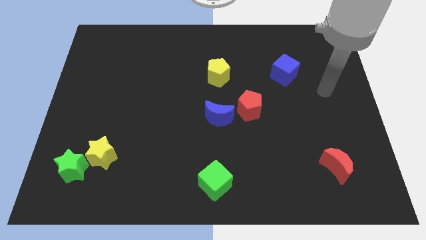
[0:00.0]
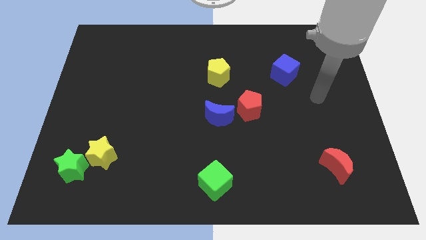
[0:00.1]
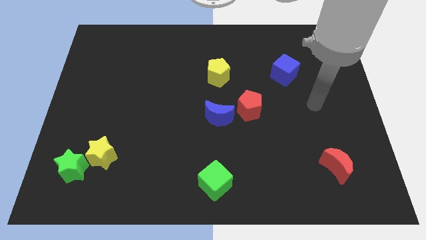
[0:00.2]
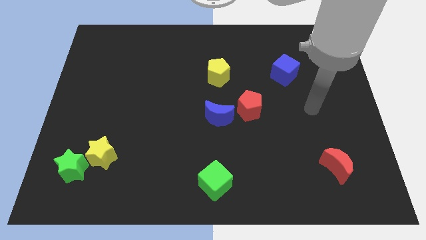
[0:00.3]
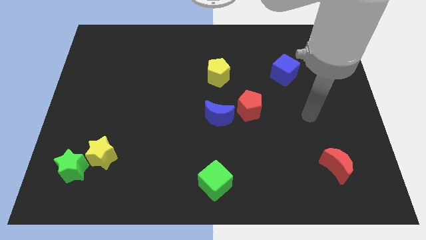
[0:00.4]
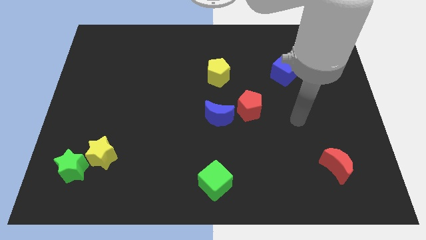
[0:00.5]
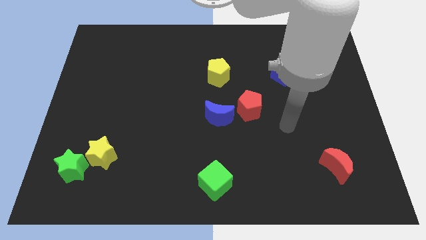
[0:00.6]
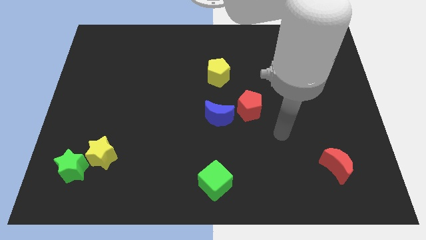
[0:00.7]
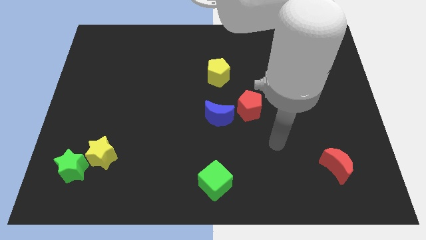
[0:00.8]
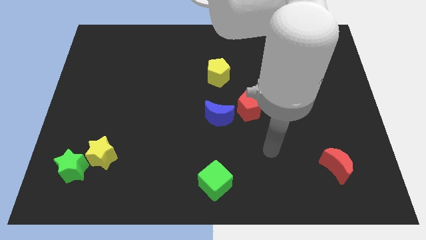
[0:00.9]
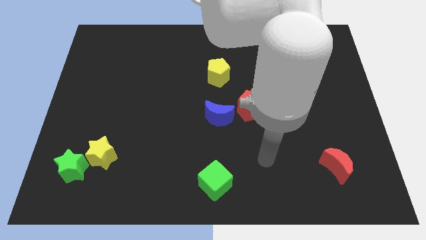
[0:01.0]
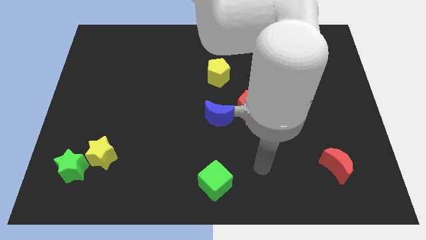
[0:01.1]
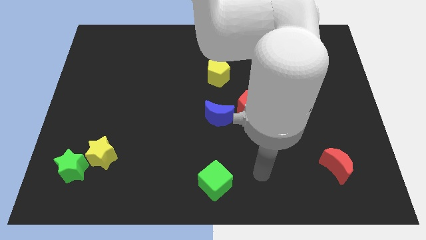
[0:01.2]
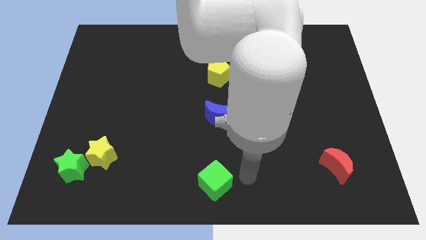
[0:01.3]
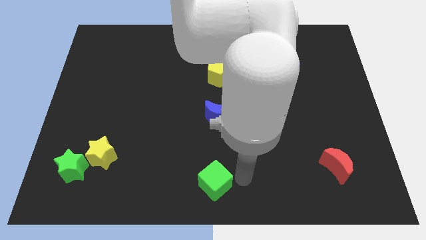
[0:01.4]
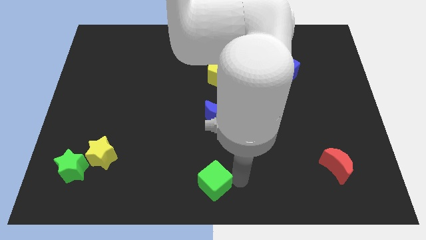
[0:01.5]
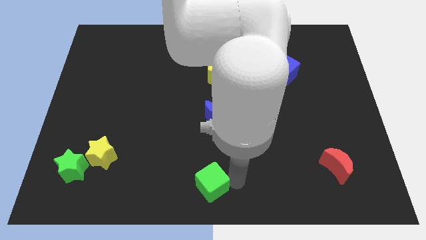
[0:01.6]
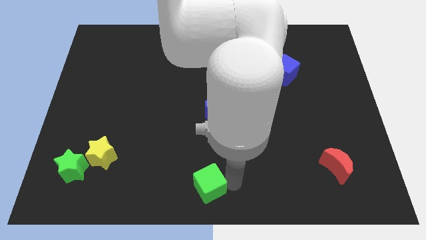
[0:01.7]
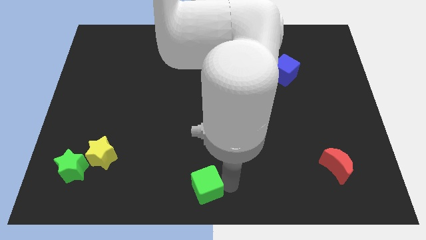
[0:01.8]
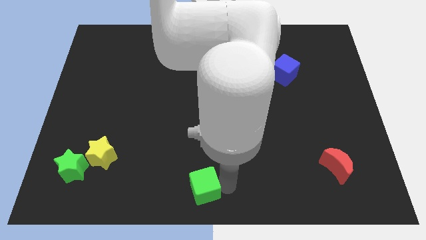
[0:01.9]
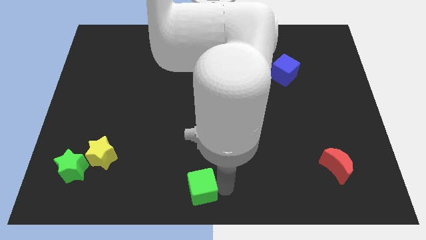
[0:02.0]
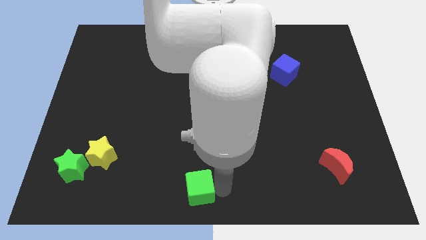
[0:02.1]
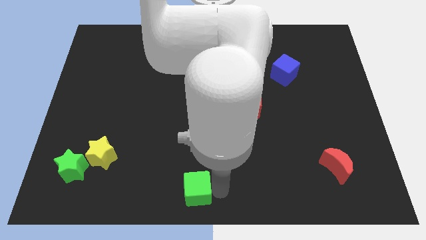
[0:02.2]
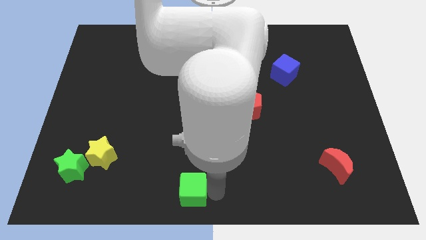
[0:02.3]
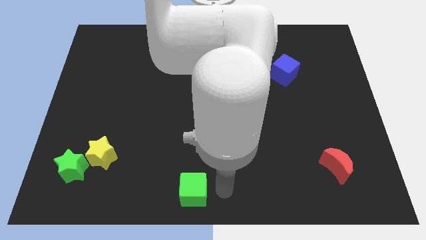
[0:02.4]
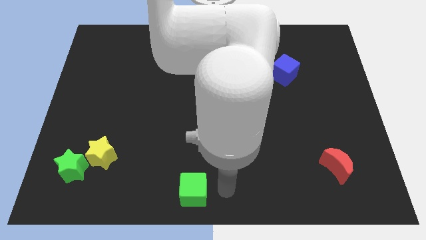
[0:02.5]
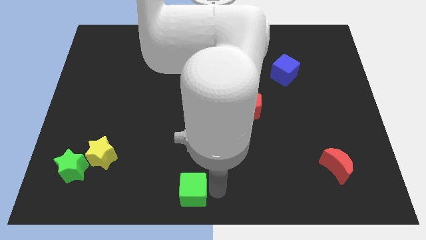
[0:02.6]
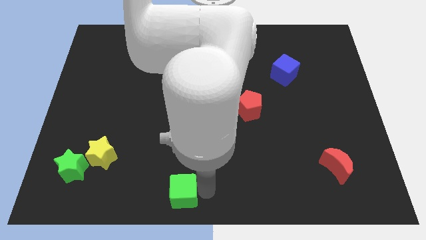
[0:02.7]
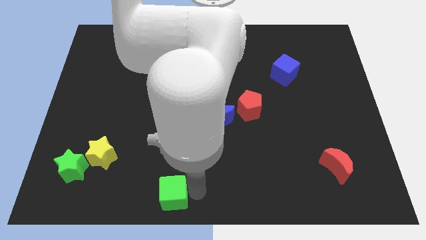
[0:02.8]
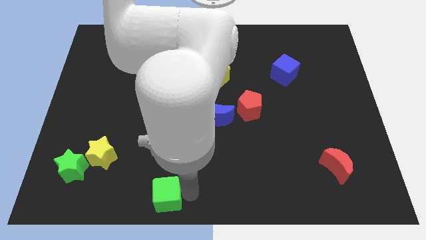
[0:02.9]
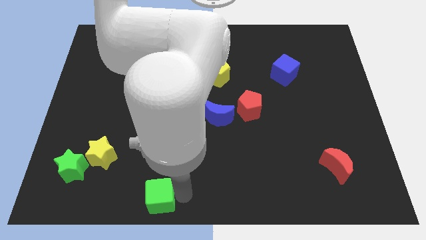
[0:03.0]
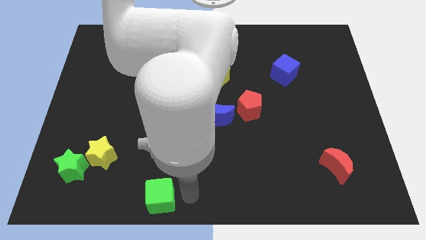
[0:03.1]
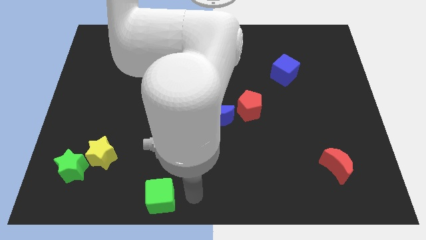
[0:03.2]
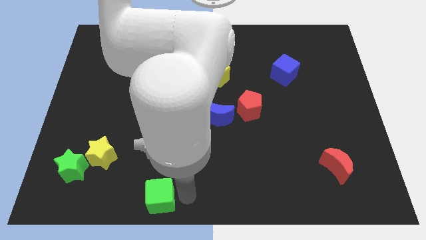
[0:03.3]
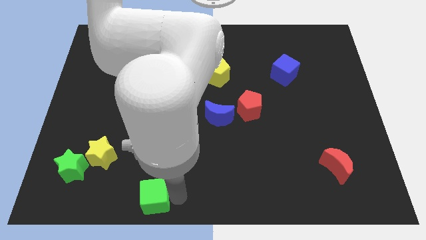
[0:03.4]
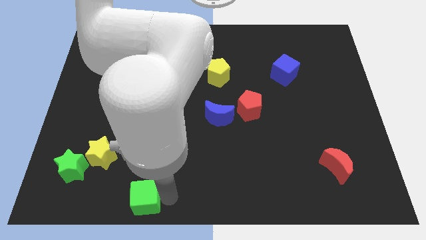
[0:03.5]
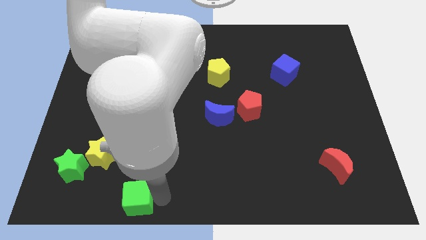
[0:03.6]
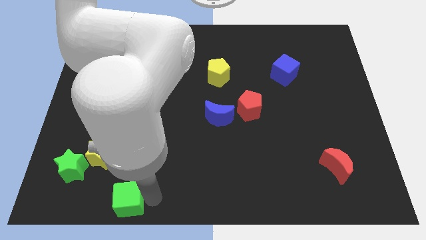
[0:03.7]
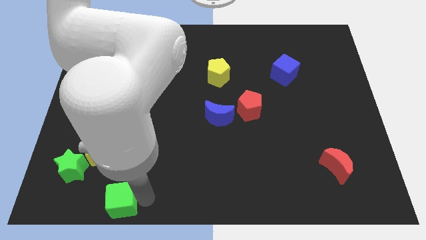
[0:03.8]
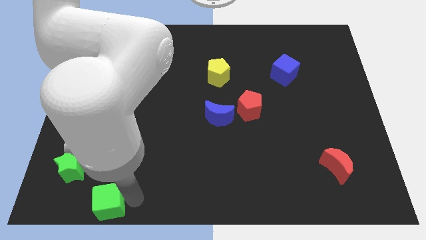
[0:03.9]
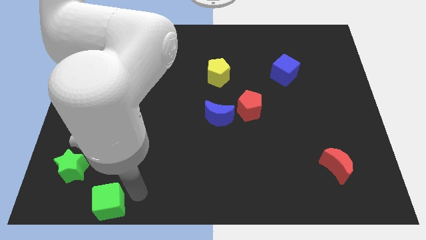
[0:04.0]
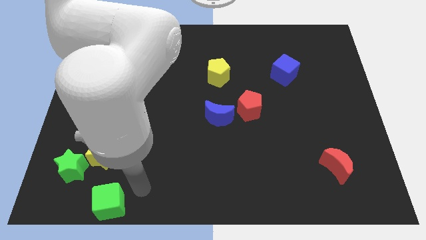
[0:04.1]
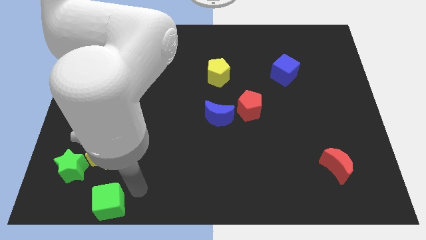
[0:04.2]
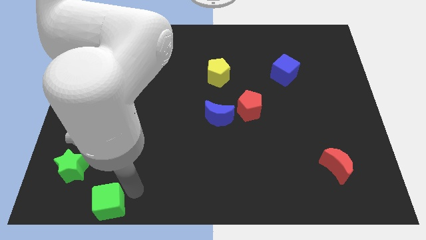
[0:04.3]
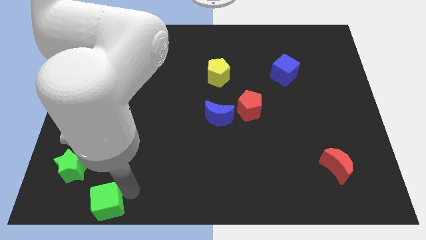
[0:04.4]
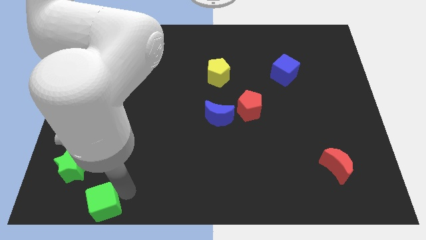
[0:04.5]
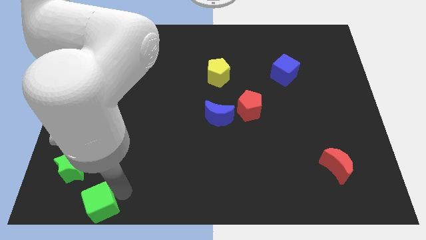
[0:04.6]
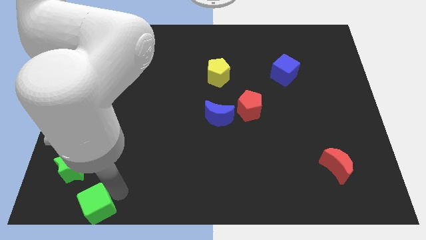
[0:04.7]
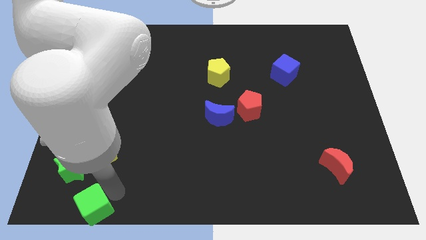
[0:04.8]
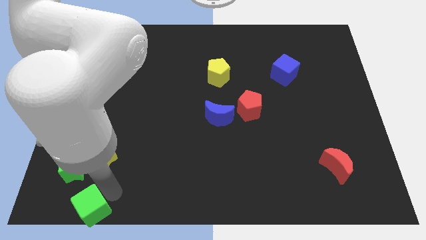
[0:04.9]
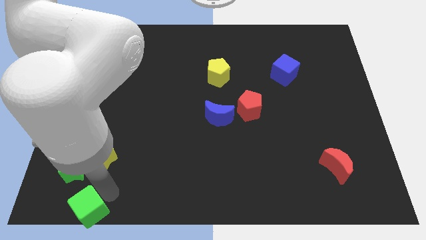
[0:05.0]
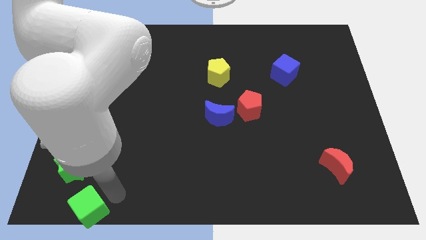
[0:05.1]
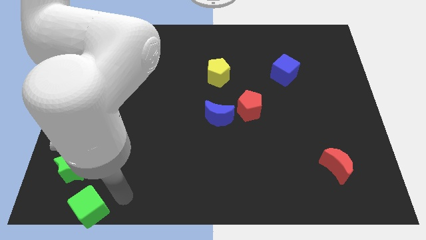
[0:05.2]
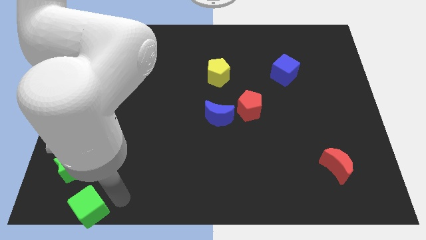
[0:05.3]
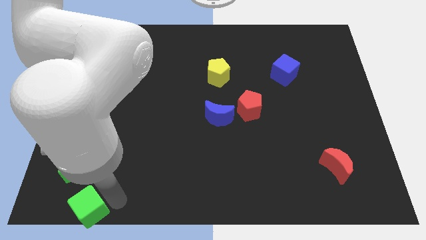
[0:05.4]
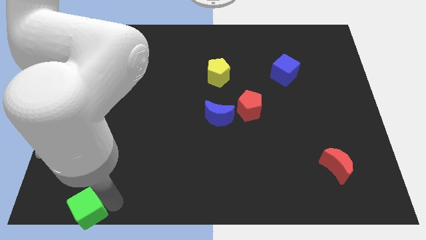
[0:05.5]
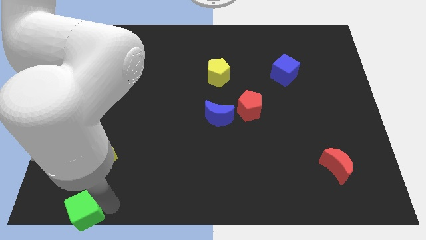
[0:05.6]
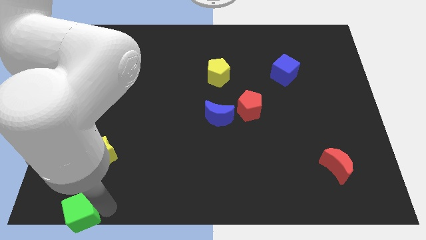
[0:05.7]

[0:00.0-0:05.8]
move the green cube to the bottom left corner
